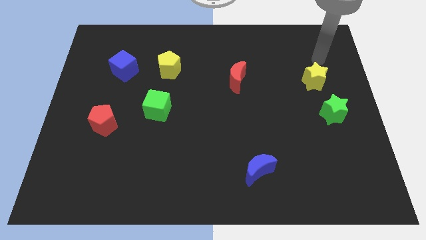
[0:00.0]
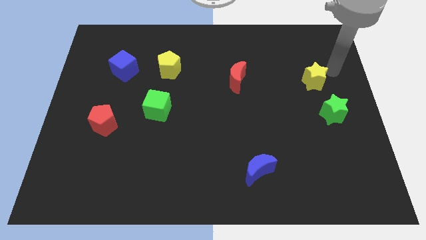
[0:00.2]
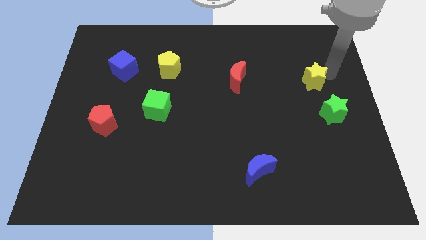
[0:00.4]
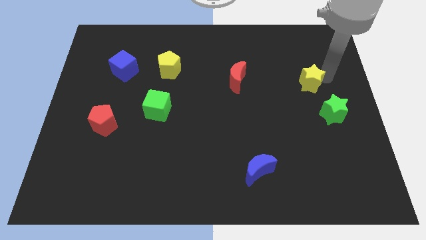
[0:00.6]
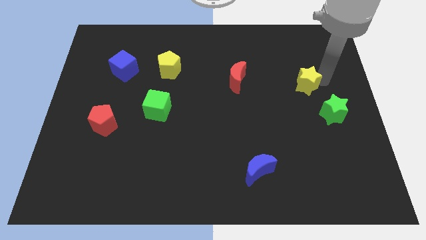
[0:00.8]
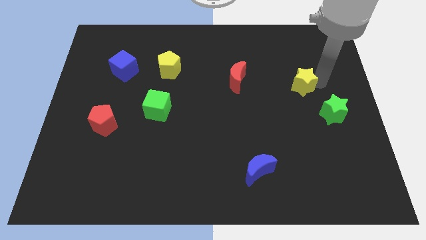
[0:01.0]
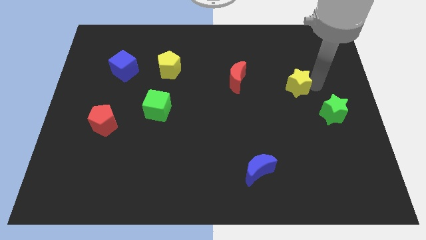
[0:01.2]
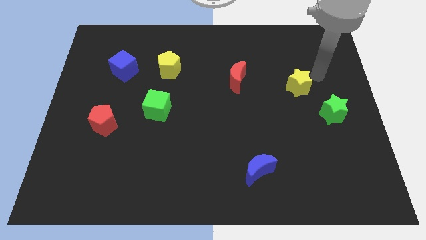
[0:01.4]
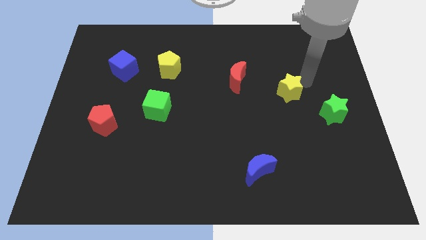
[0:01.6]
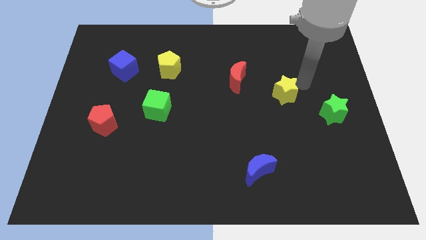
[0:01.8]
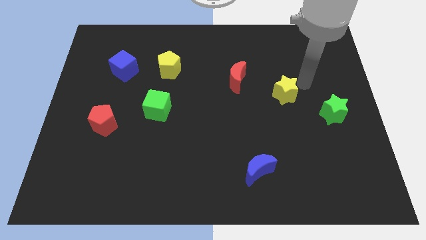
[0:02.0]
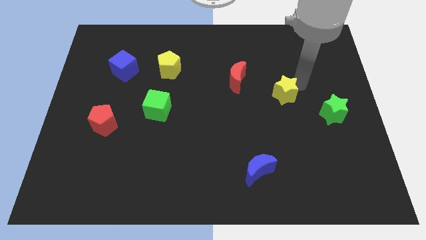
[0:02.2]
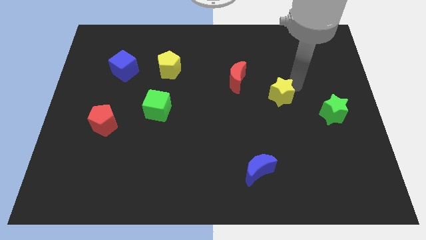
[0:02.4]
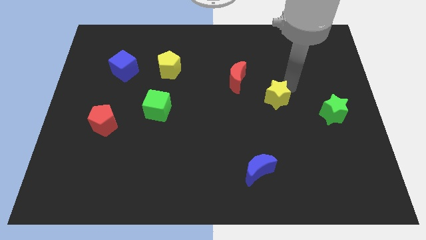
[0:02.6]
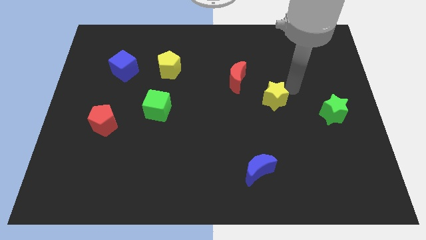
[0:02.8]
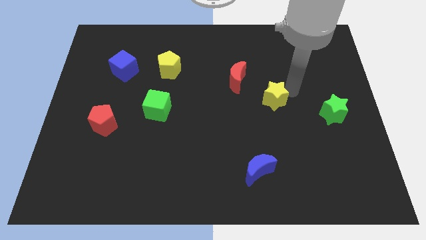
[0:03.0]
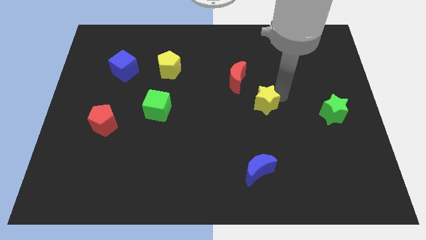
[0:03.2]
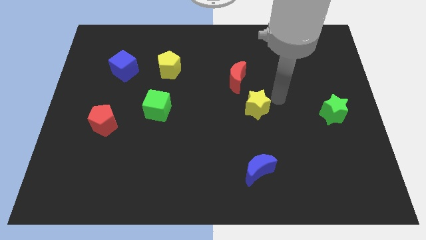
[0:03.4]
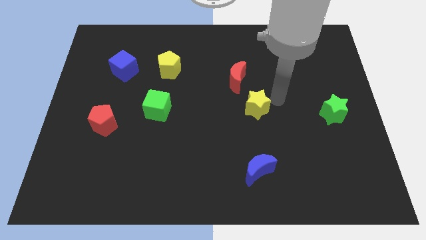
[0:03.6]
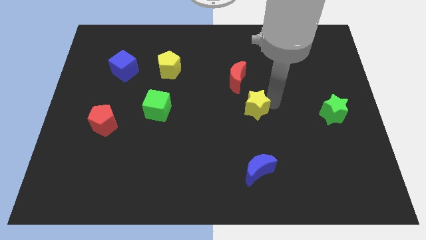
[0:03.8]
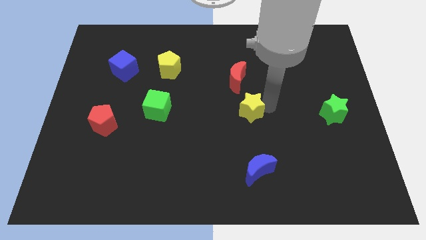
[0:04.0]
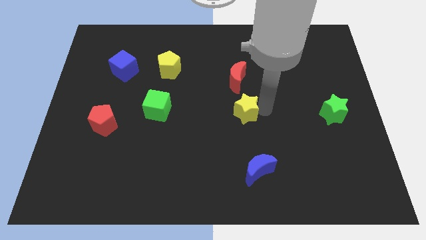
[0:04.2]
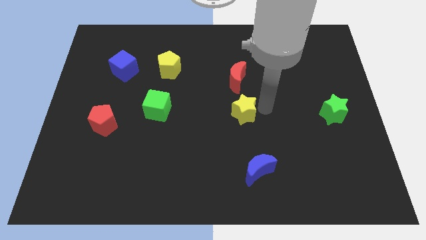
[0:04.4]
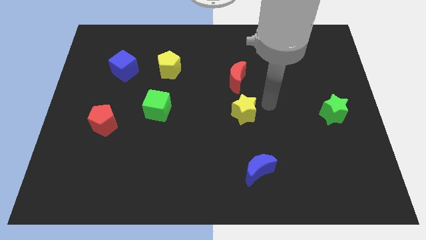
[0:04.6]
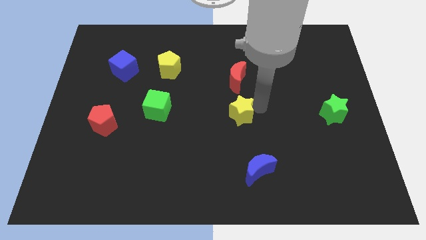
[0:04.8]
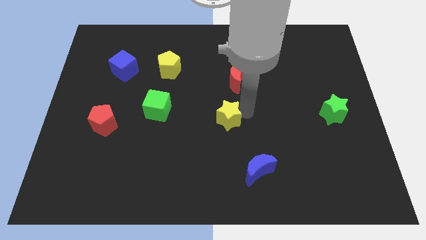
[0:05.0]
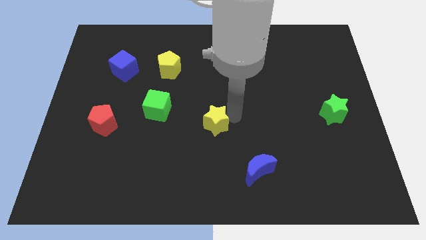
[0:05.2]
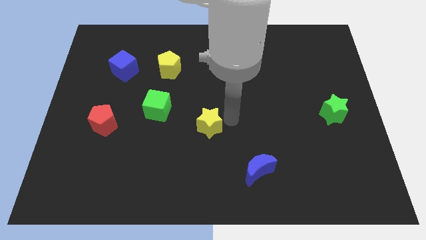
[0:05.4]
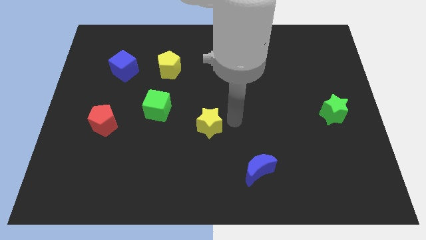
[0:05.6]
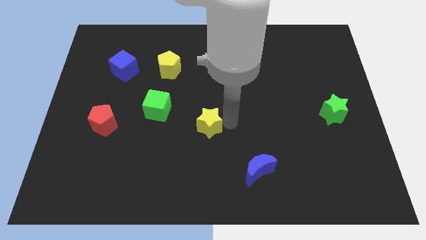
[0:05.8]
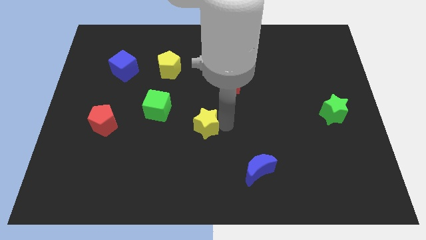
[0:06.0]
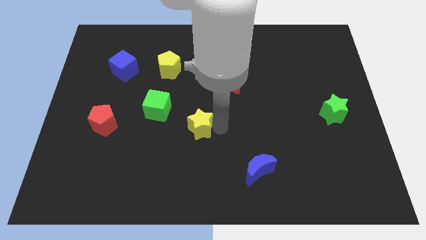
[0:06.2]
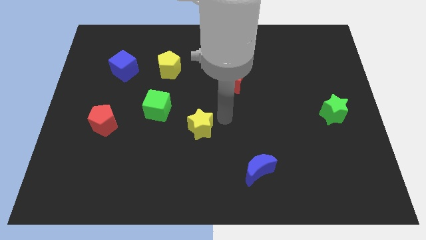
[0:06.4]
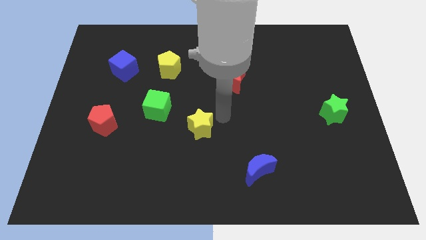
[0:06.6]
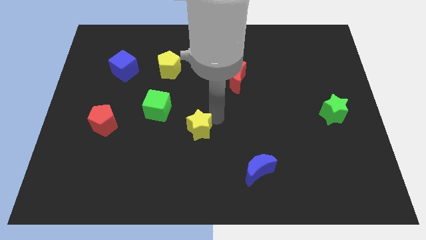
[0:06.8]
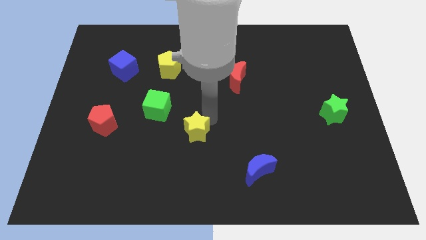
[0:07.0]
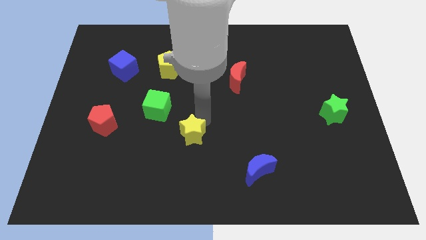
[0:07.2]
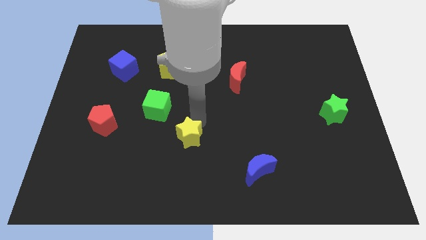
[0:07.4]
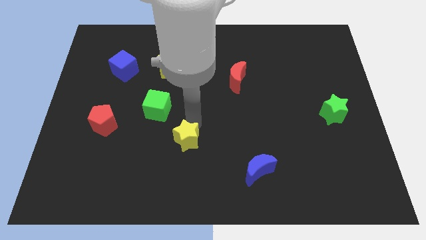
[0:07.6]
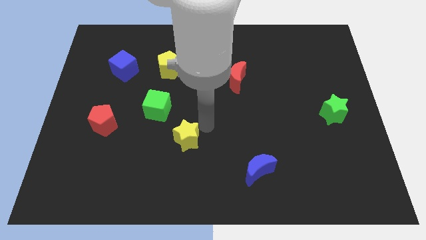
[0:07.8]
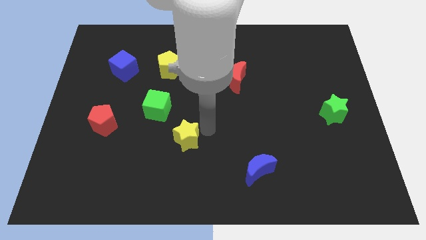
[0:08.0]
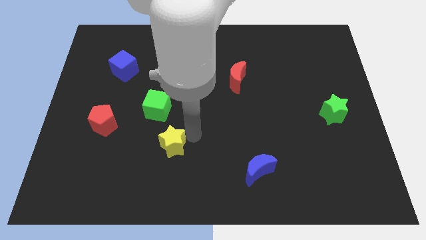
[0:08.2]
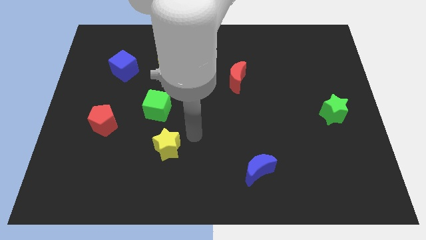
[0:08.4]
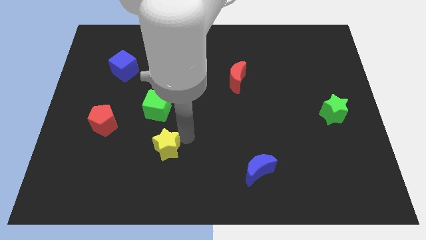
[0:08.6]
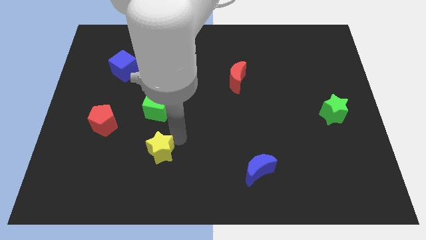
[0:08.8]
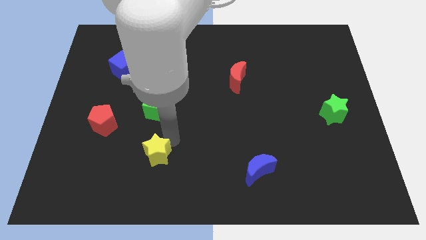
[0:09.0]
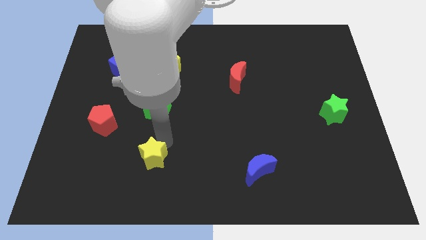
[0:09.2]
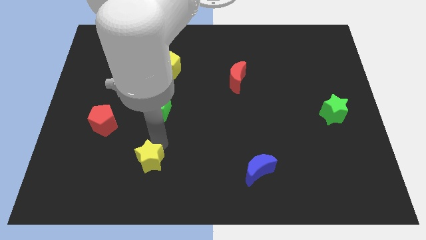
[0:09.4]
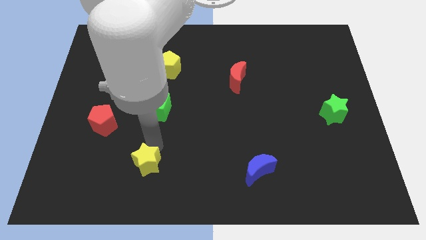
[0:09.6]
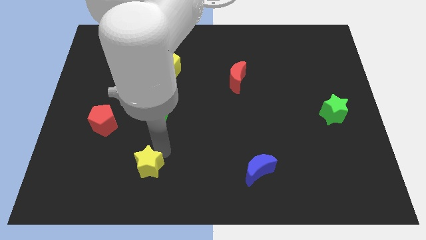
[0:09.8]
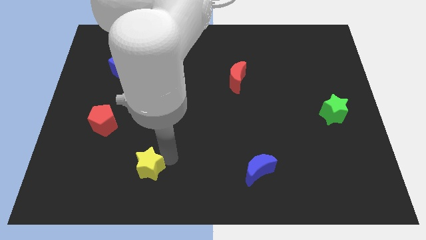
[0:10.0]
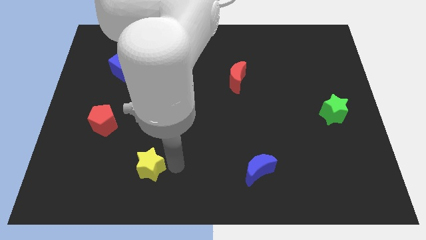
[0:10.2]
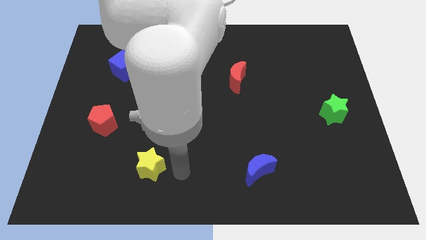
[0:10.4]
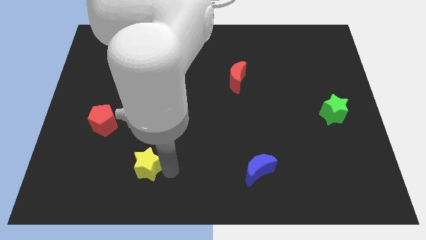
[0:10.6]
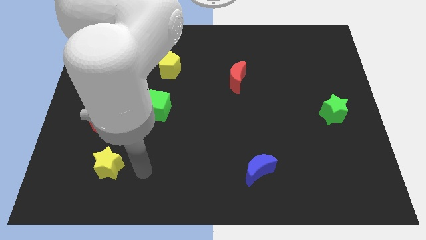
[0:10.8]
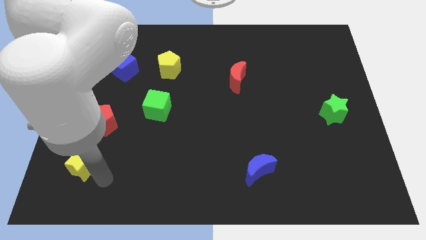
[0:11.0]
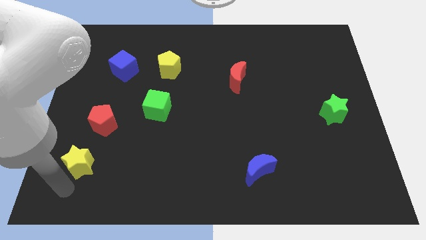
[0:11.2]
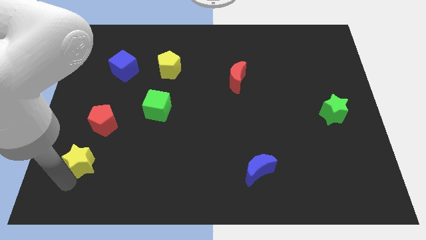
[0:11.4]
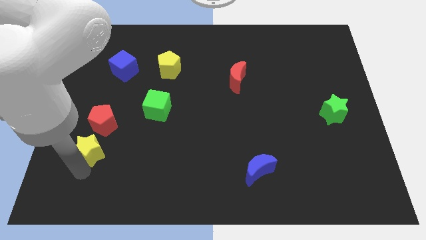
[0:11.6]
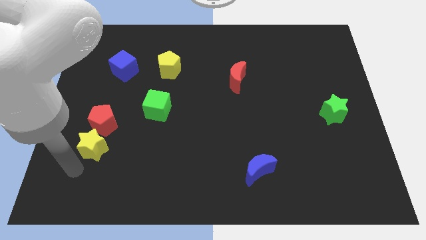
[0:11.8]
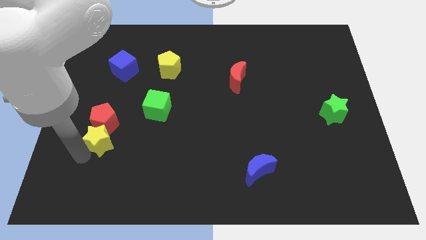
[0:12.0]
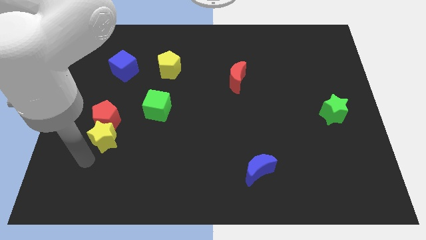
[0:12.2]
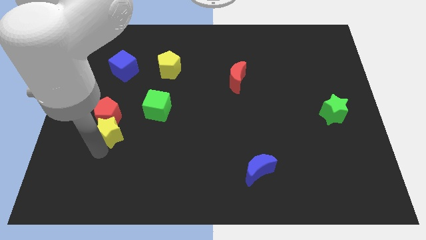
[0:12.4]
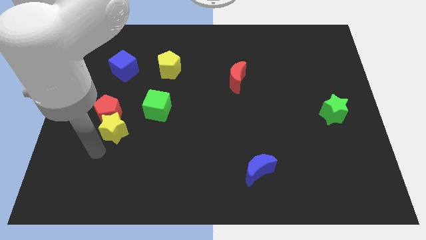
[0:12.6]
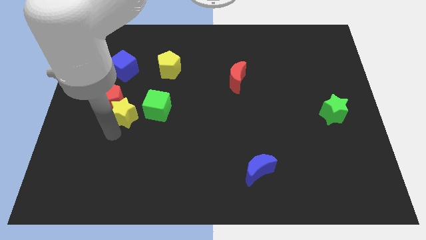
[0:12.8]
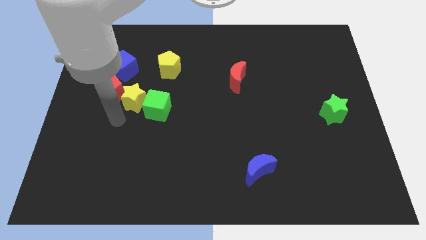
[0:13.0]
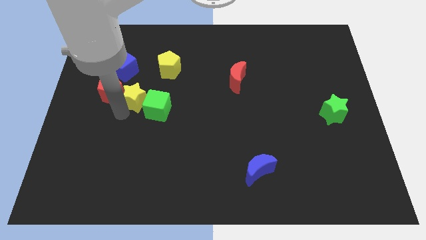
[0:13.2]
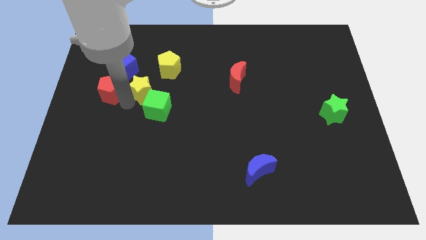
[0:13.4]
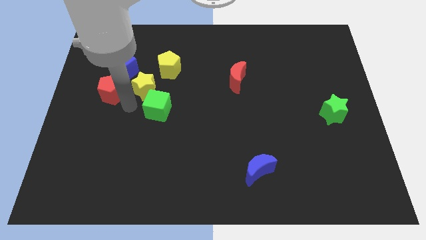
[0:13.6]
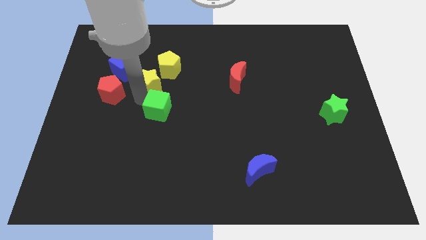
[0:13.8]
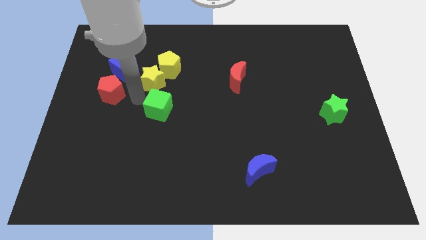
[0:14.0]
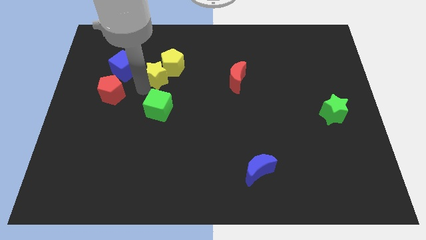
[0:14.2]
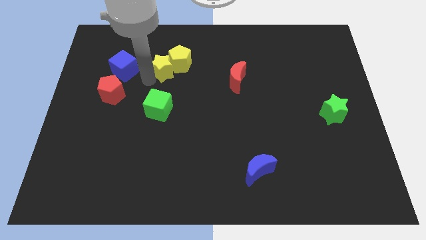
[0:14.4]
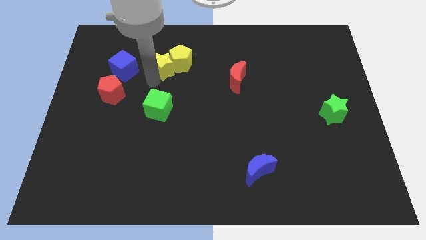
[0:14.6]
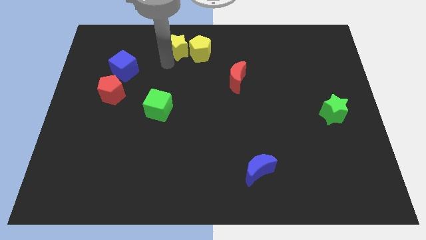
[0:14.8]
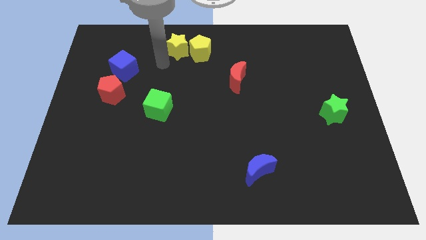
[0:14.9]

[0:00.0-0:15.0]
move the yellow star to the towards your base
